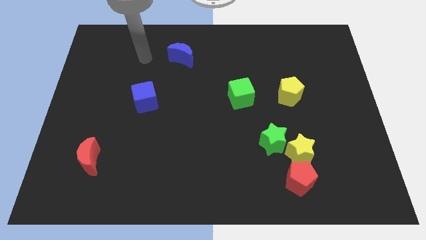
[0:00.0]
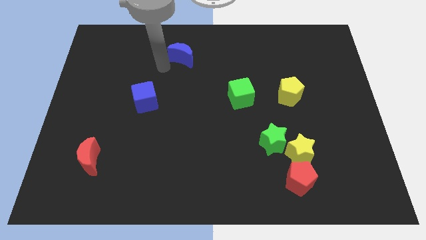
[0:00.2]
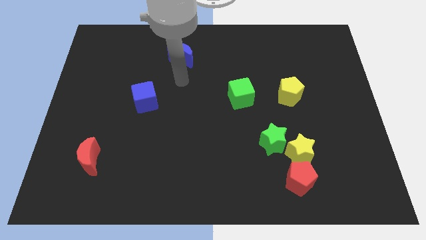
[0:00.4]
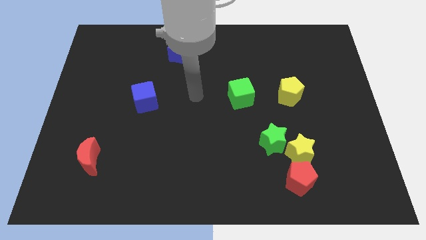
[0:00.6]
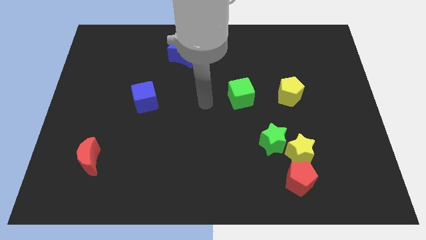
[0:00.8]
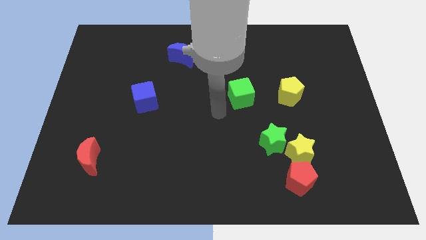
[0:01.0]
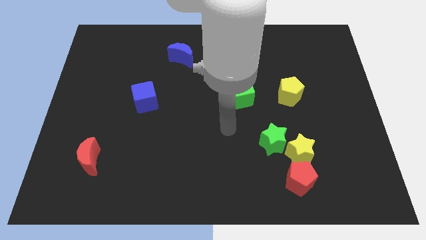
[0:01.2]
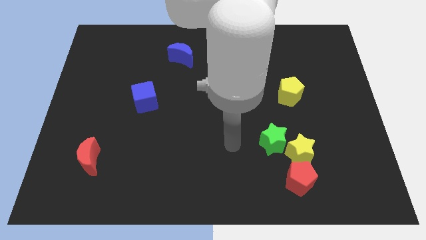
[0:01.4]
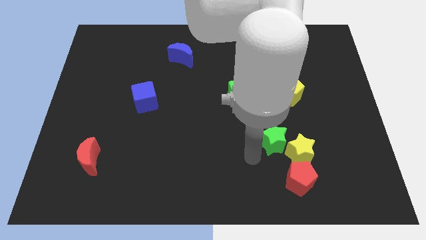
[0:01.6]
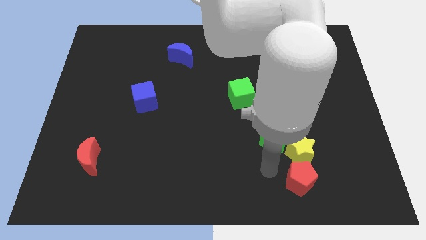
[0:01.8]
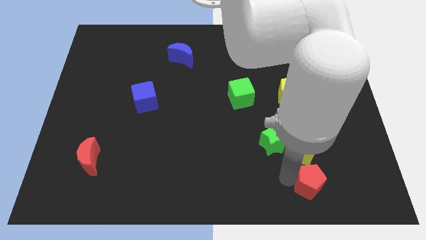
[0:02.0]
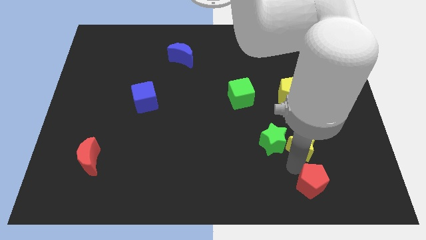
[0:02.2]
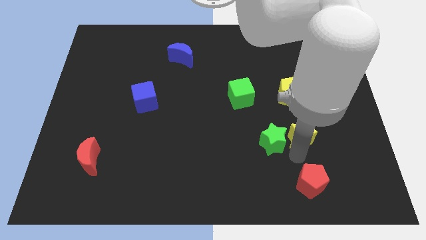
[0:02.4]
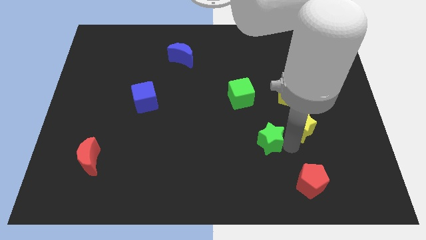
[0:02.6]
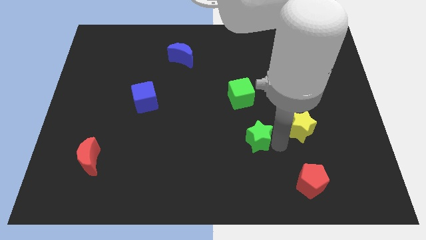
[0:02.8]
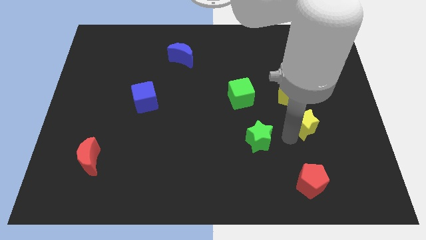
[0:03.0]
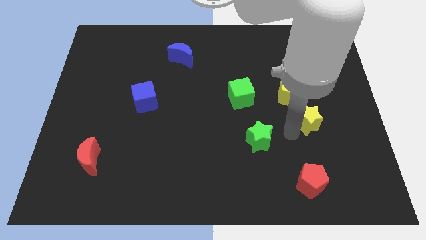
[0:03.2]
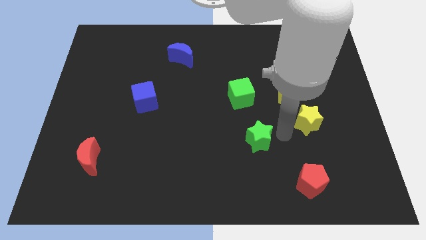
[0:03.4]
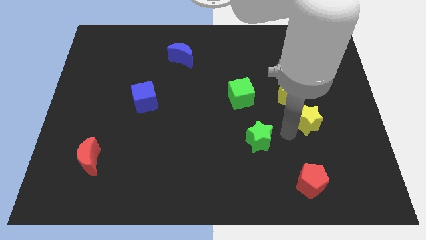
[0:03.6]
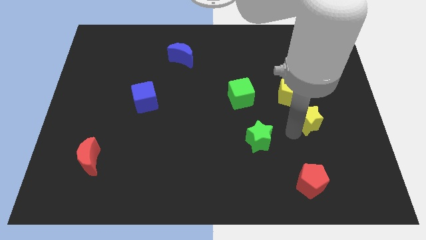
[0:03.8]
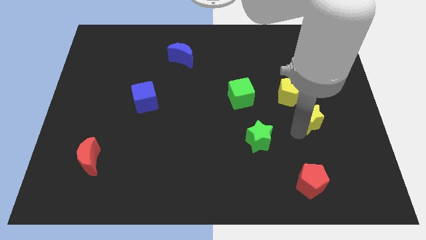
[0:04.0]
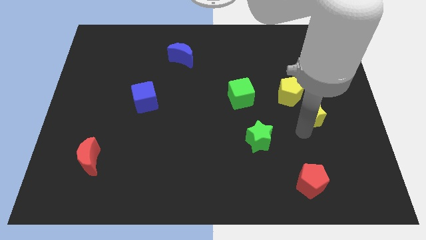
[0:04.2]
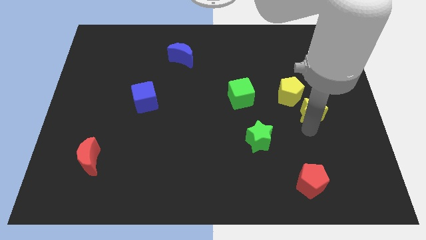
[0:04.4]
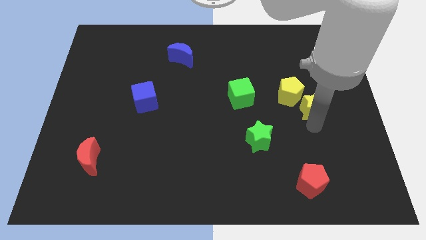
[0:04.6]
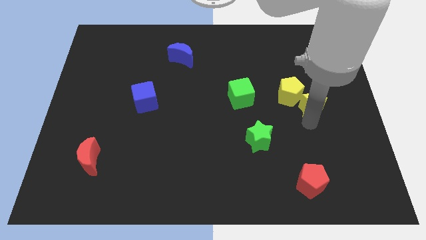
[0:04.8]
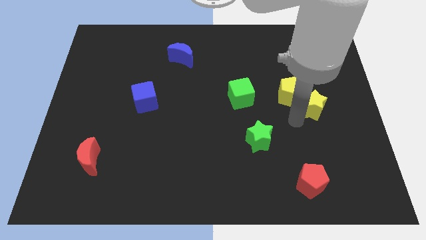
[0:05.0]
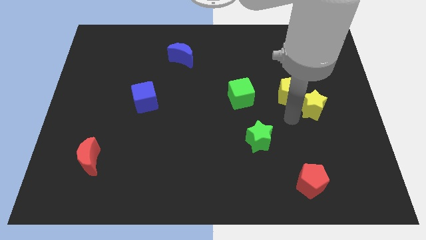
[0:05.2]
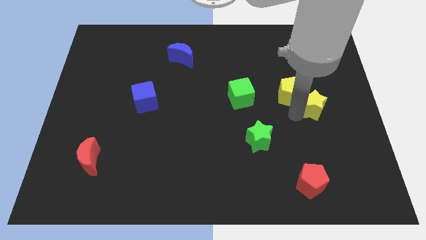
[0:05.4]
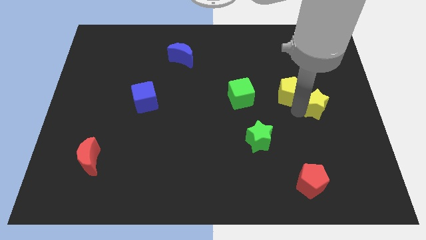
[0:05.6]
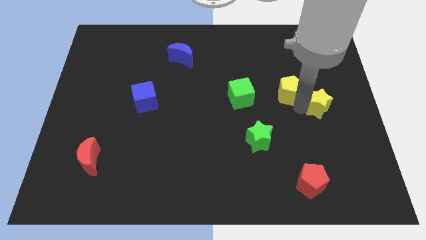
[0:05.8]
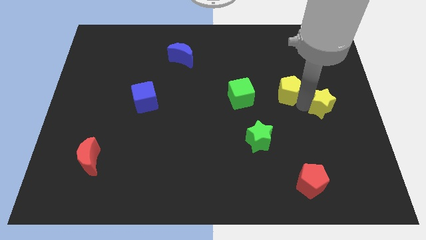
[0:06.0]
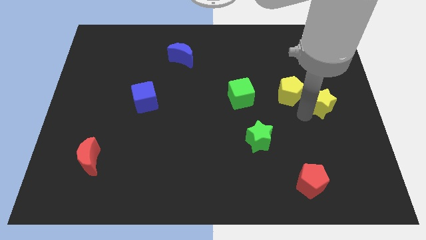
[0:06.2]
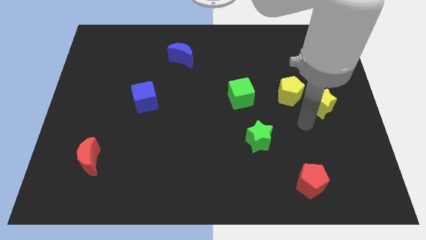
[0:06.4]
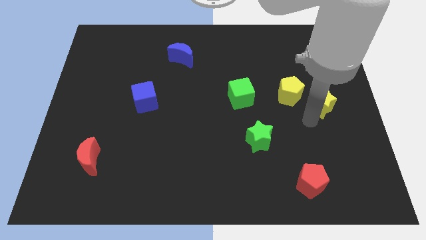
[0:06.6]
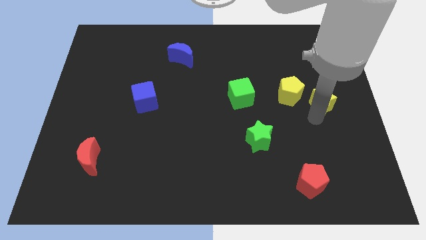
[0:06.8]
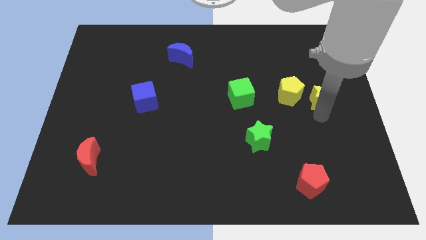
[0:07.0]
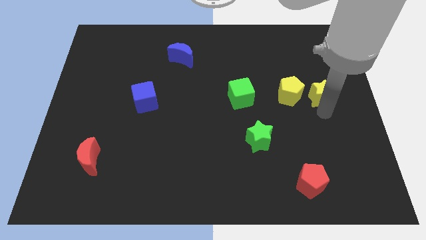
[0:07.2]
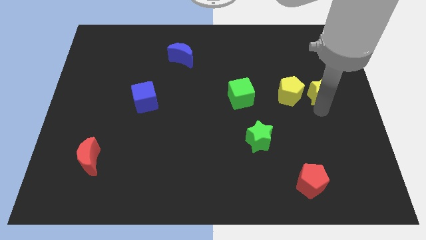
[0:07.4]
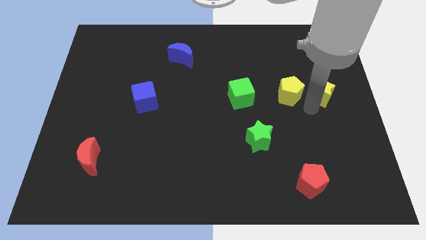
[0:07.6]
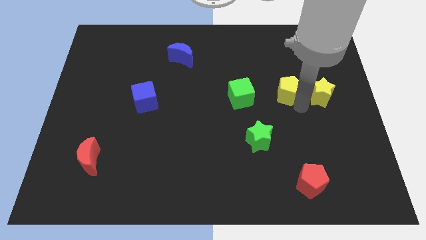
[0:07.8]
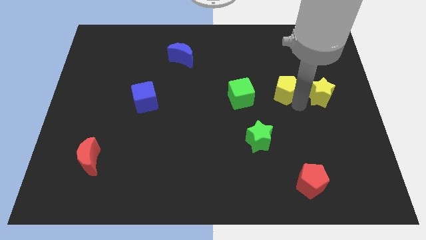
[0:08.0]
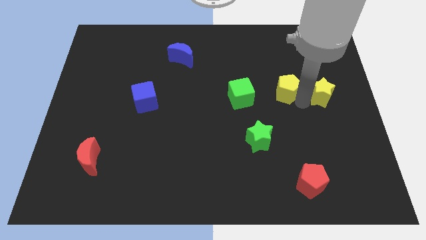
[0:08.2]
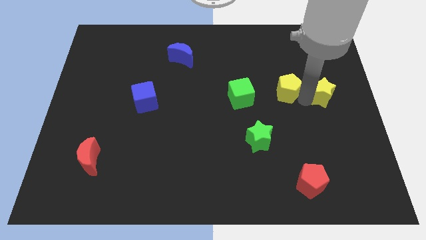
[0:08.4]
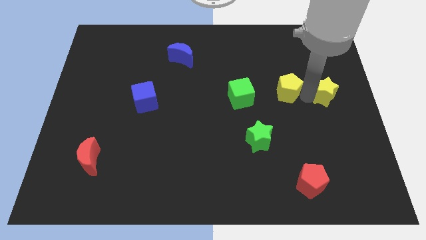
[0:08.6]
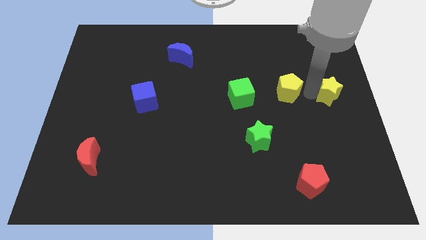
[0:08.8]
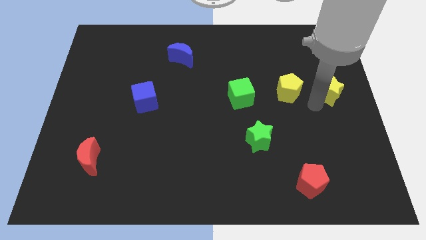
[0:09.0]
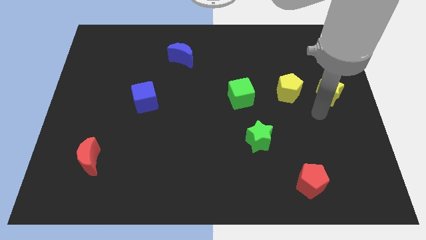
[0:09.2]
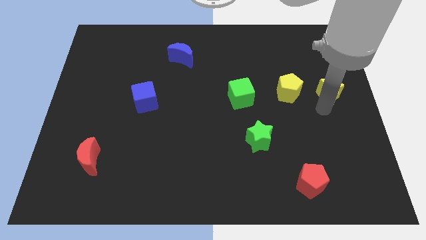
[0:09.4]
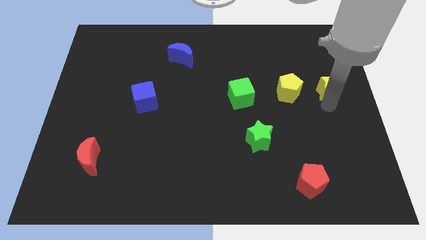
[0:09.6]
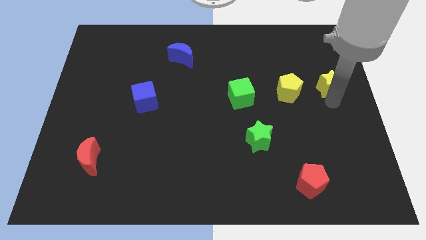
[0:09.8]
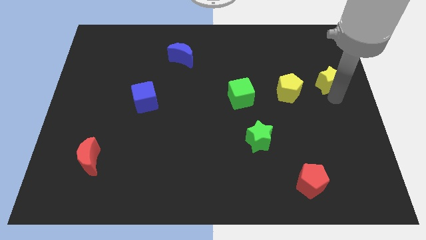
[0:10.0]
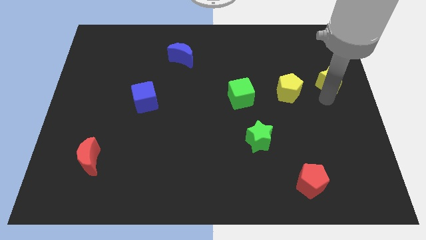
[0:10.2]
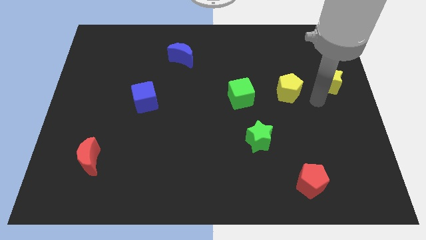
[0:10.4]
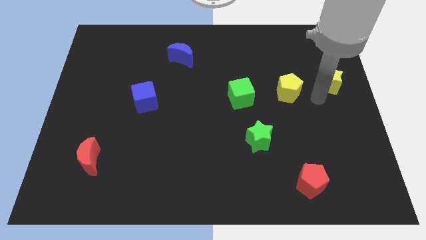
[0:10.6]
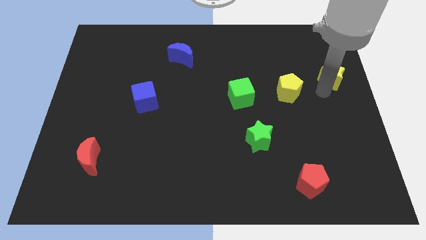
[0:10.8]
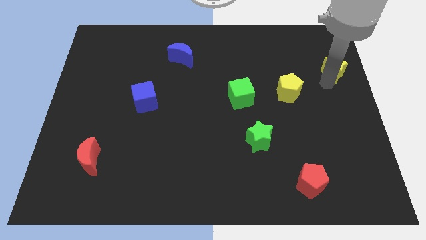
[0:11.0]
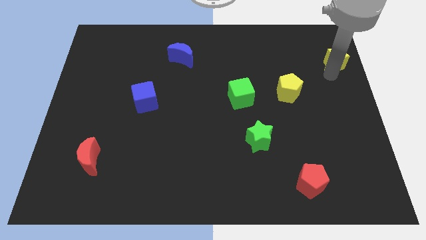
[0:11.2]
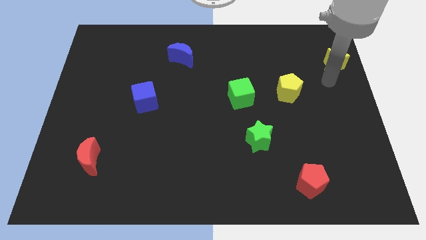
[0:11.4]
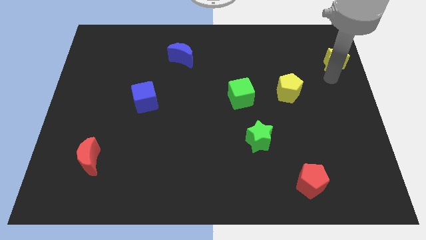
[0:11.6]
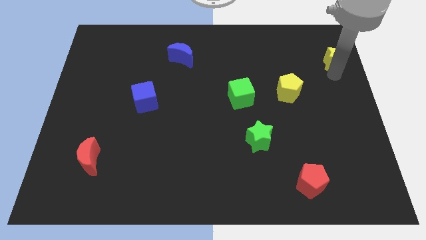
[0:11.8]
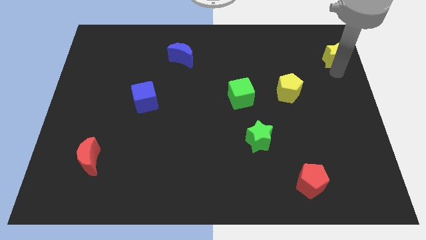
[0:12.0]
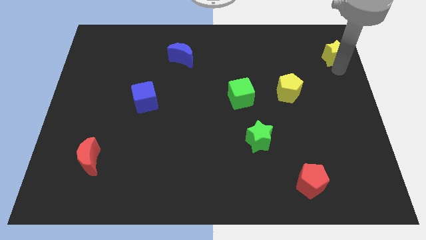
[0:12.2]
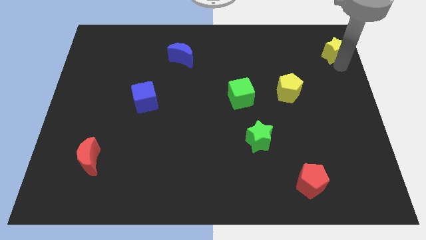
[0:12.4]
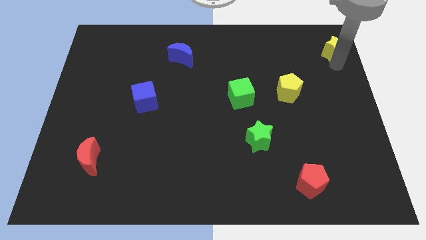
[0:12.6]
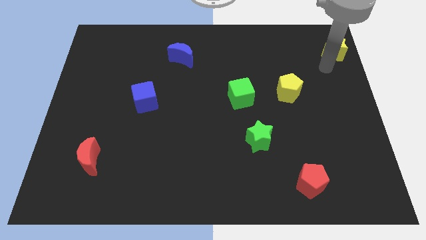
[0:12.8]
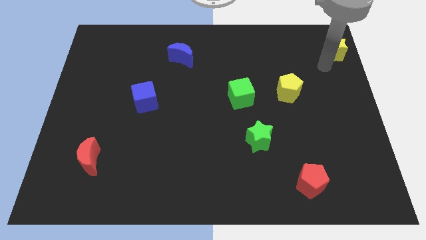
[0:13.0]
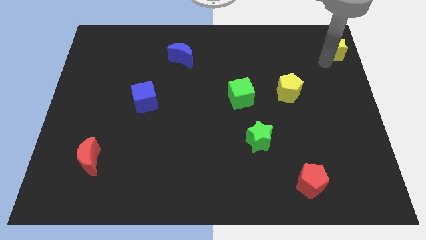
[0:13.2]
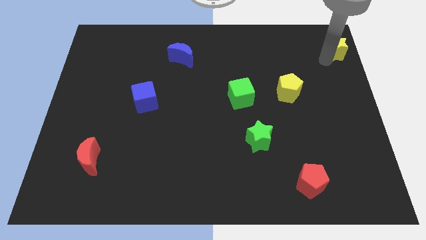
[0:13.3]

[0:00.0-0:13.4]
slide the yellow star to the upper right corner
